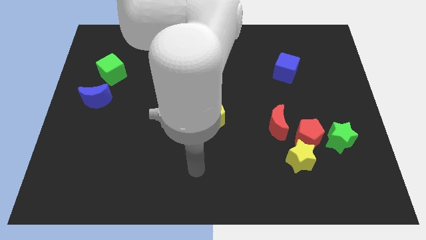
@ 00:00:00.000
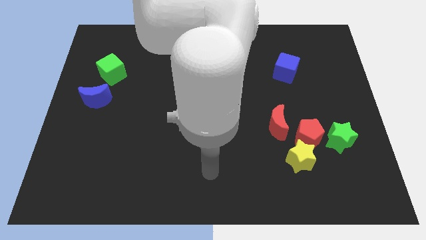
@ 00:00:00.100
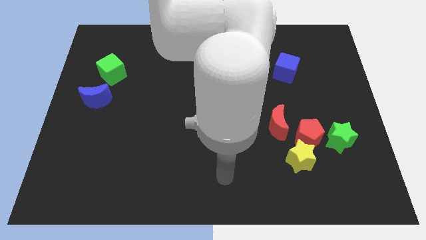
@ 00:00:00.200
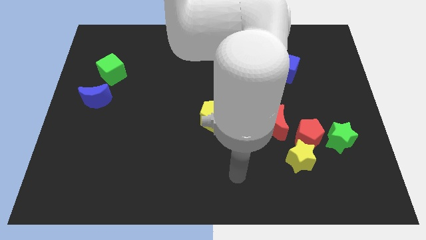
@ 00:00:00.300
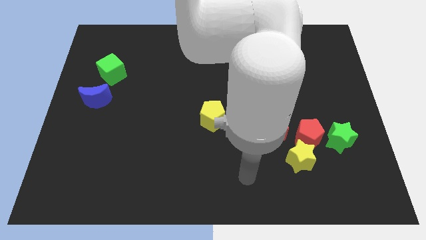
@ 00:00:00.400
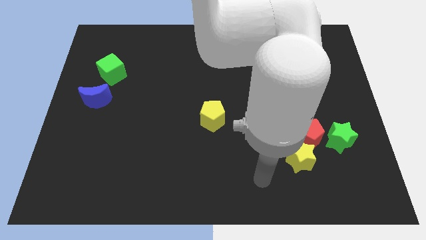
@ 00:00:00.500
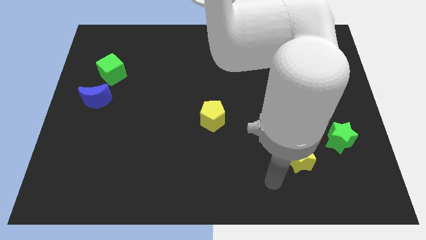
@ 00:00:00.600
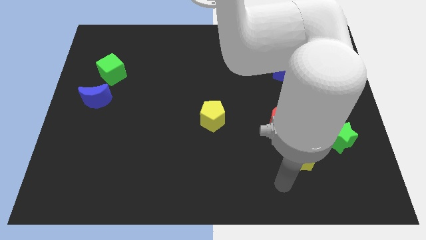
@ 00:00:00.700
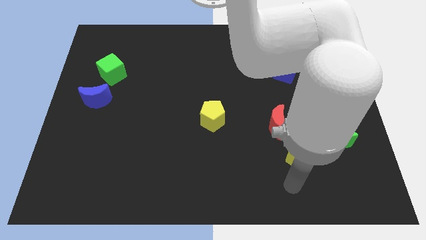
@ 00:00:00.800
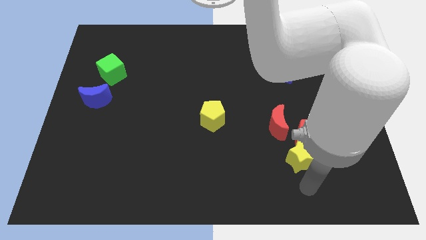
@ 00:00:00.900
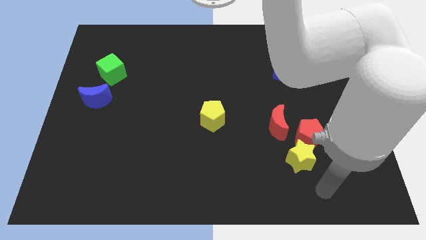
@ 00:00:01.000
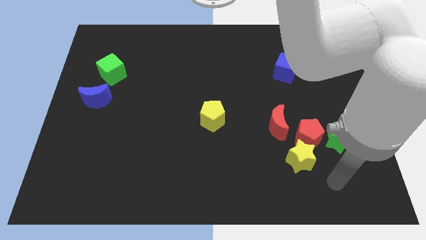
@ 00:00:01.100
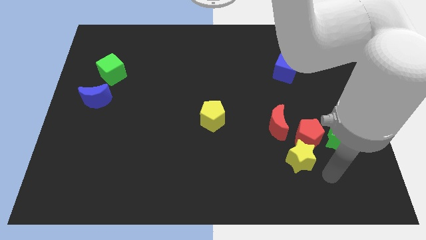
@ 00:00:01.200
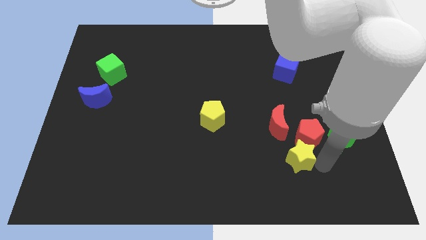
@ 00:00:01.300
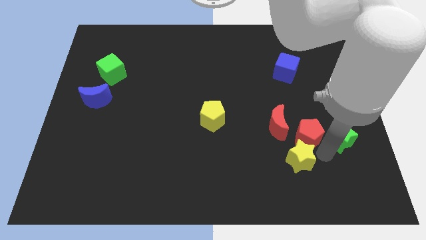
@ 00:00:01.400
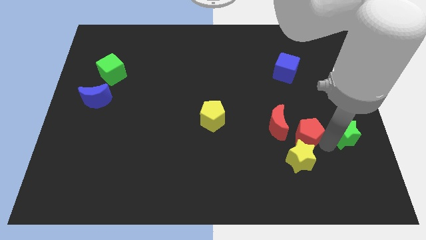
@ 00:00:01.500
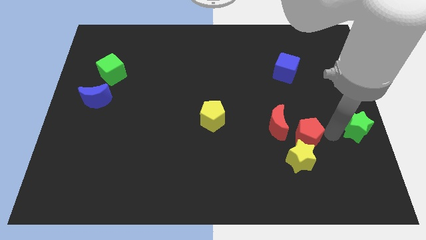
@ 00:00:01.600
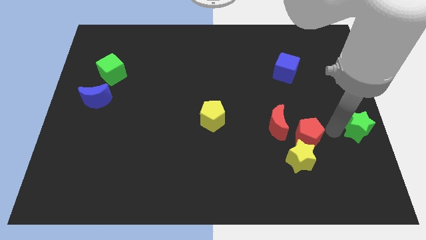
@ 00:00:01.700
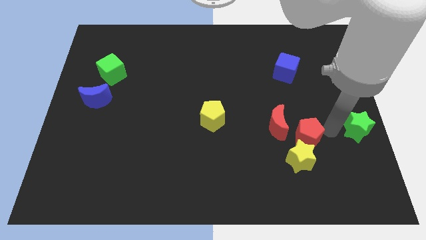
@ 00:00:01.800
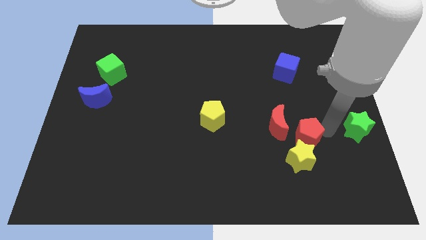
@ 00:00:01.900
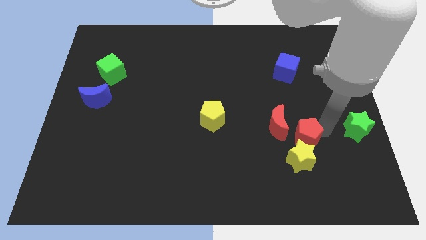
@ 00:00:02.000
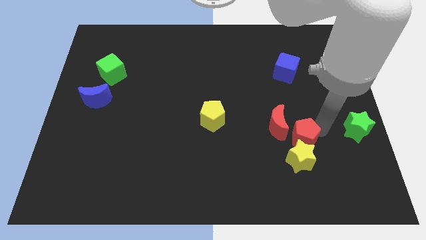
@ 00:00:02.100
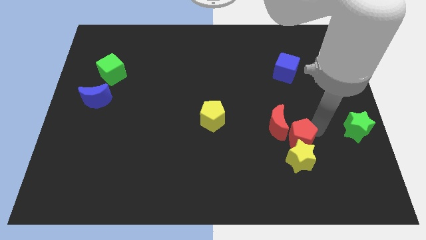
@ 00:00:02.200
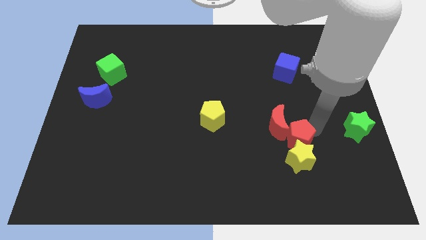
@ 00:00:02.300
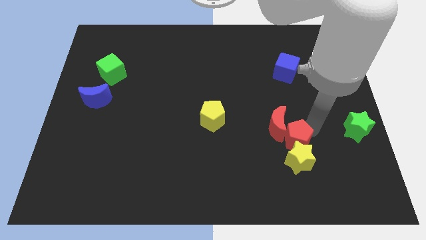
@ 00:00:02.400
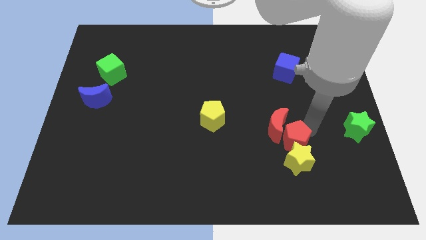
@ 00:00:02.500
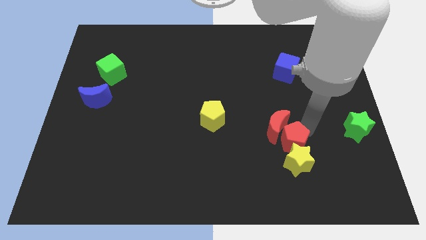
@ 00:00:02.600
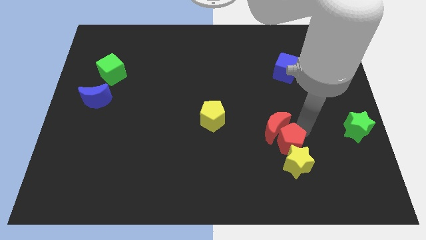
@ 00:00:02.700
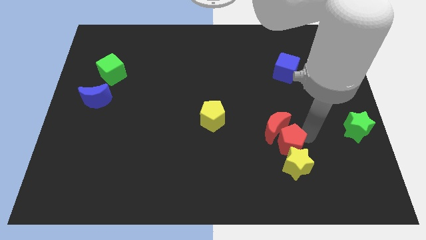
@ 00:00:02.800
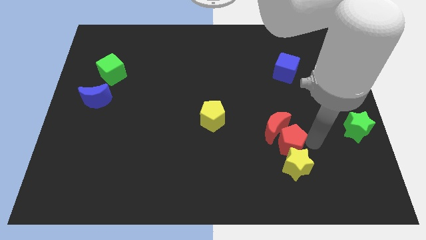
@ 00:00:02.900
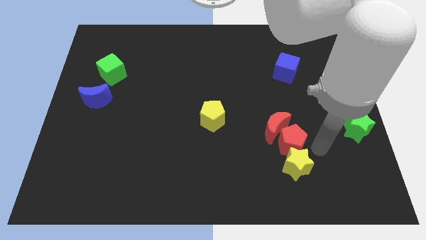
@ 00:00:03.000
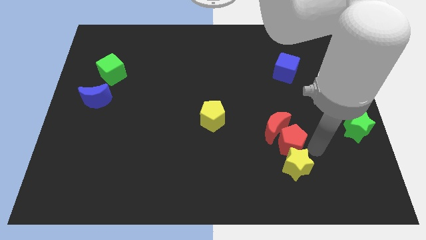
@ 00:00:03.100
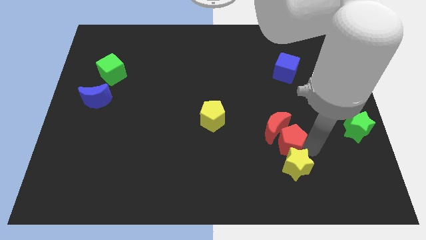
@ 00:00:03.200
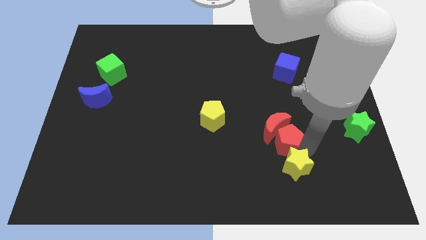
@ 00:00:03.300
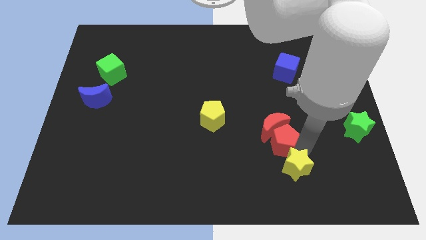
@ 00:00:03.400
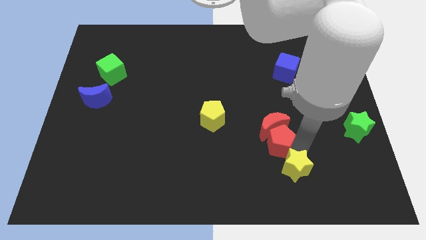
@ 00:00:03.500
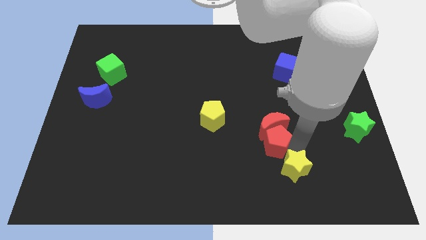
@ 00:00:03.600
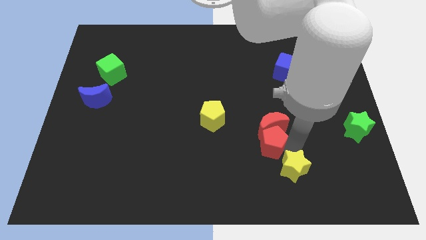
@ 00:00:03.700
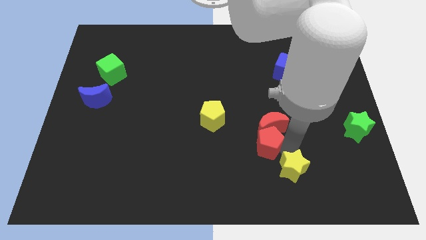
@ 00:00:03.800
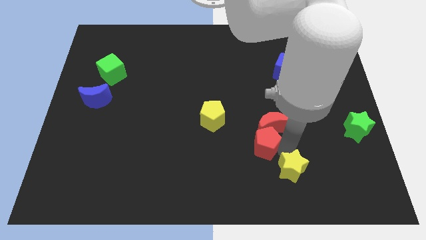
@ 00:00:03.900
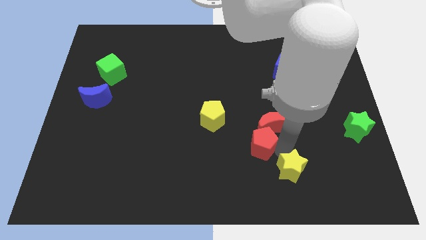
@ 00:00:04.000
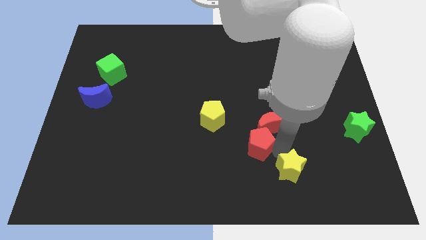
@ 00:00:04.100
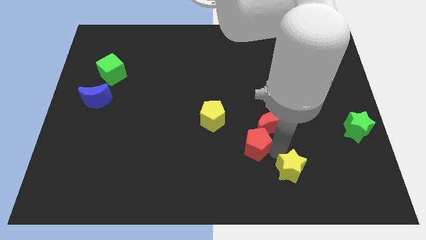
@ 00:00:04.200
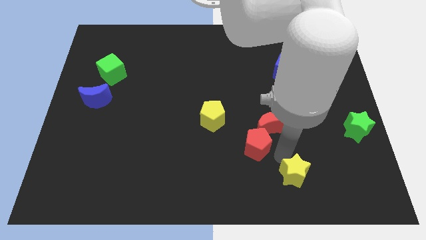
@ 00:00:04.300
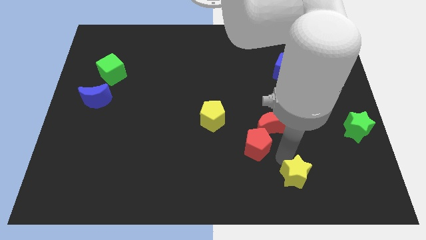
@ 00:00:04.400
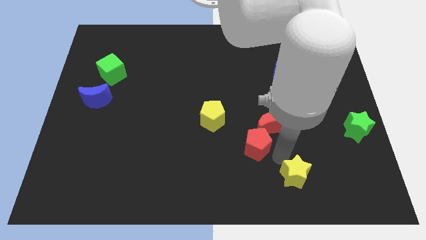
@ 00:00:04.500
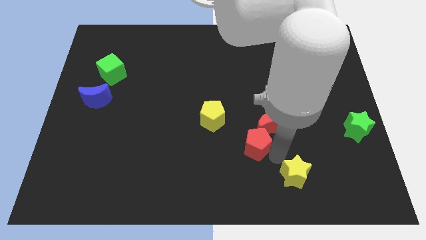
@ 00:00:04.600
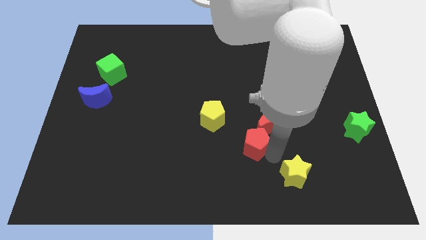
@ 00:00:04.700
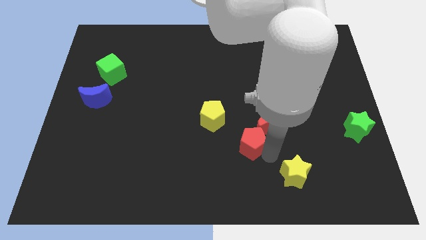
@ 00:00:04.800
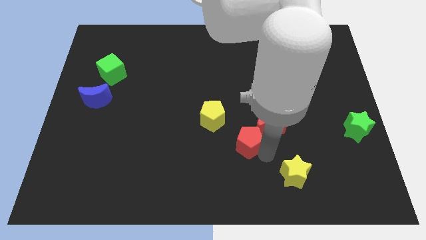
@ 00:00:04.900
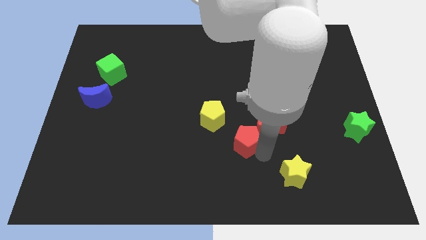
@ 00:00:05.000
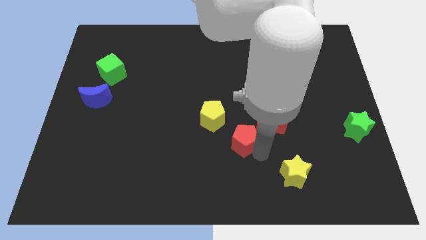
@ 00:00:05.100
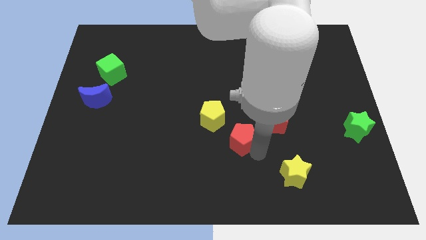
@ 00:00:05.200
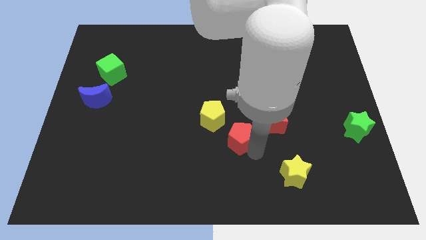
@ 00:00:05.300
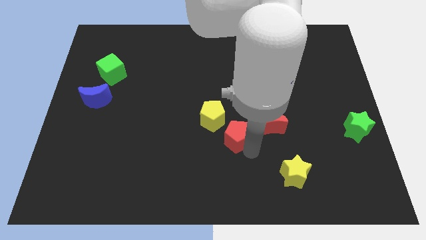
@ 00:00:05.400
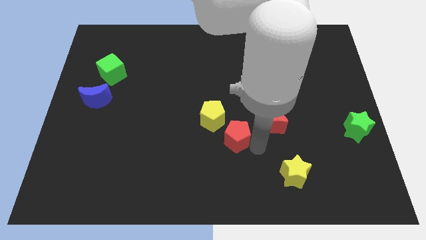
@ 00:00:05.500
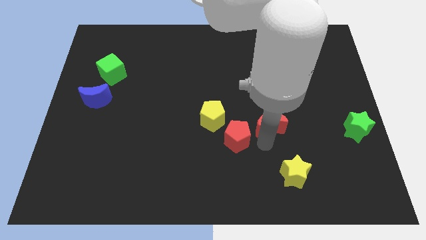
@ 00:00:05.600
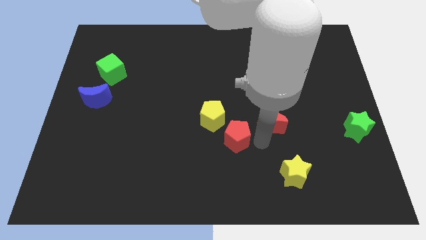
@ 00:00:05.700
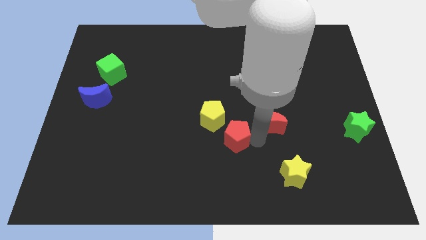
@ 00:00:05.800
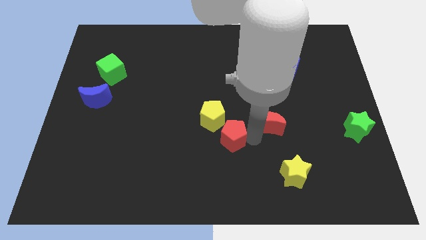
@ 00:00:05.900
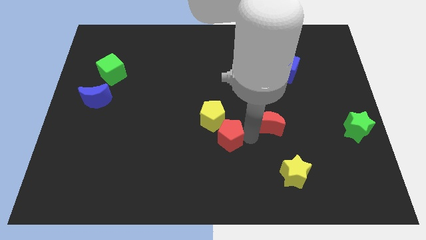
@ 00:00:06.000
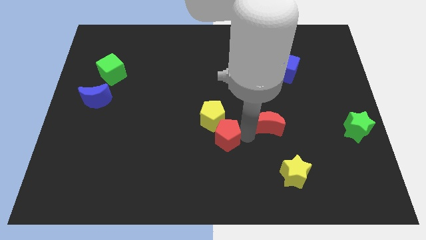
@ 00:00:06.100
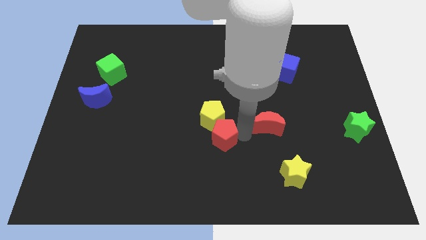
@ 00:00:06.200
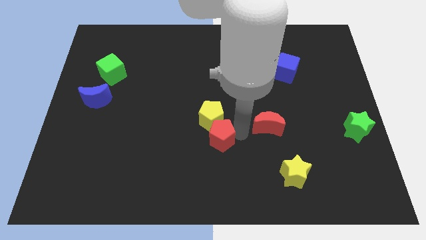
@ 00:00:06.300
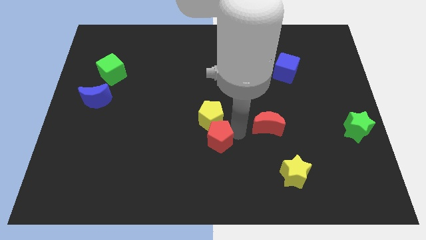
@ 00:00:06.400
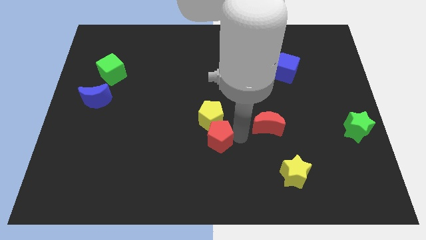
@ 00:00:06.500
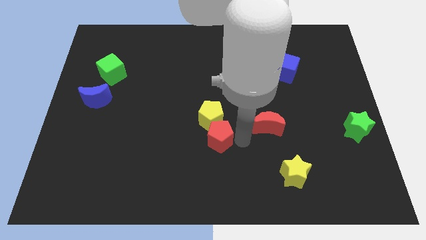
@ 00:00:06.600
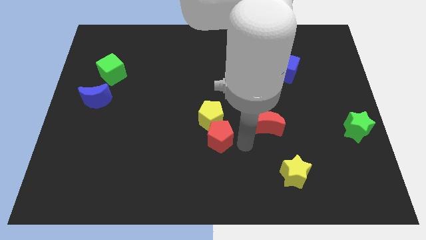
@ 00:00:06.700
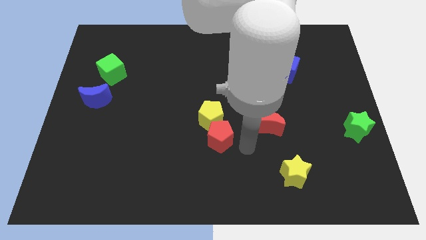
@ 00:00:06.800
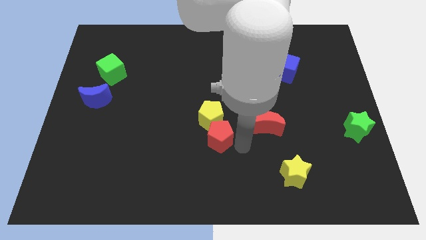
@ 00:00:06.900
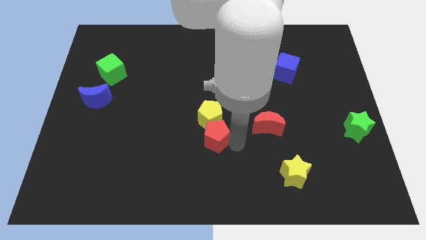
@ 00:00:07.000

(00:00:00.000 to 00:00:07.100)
push the red pentagon left

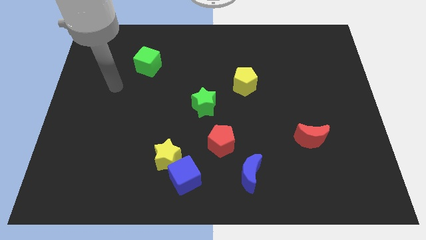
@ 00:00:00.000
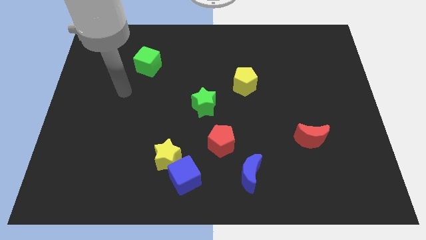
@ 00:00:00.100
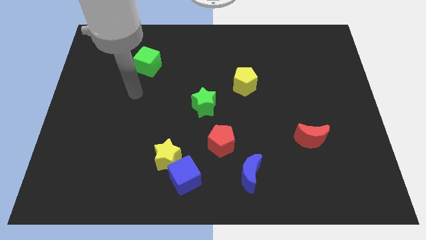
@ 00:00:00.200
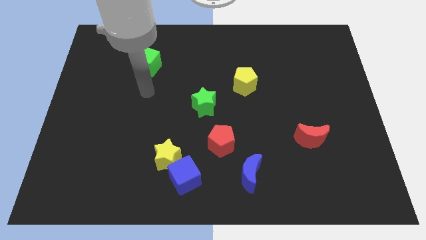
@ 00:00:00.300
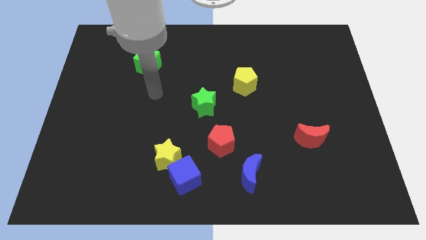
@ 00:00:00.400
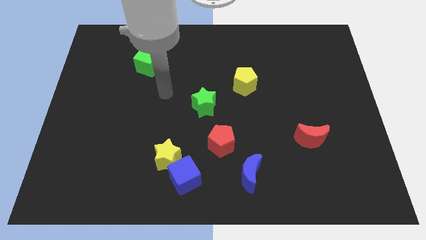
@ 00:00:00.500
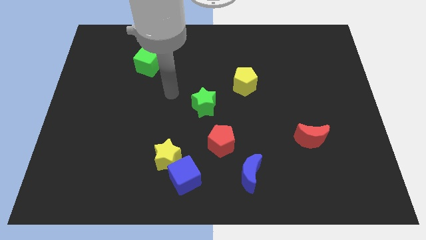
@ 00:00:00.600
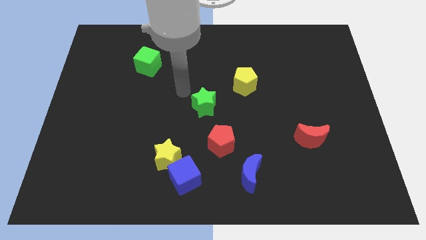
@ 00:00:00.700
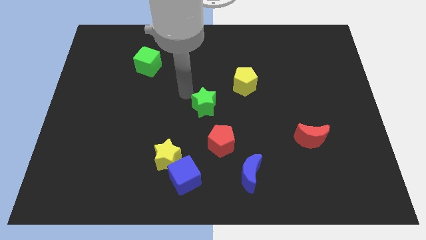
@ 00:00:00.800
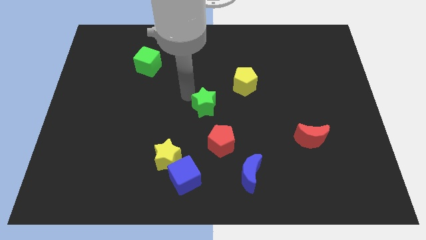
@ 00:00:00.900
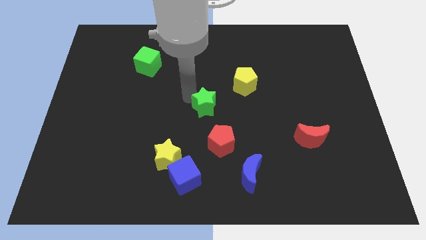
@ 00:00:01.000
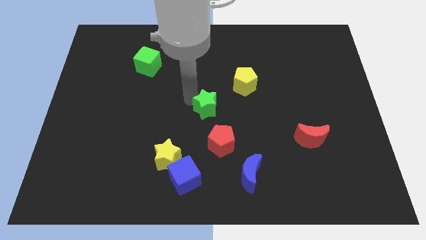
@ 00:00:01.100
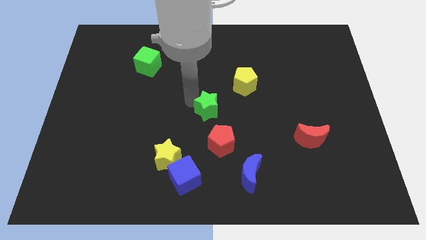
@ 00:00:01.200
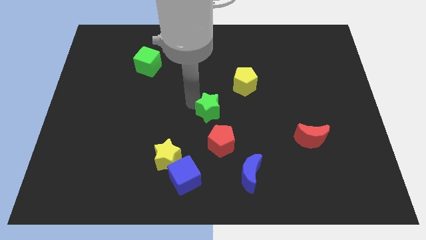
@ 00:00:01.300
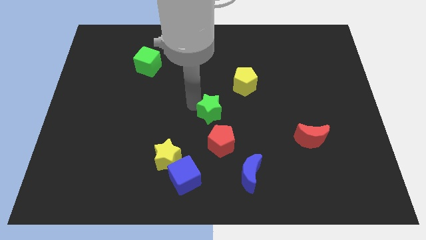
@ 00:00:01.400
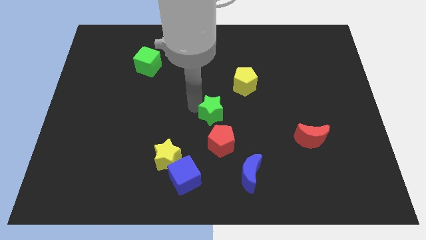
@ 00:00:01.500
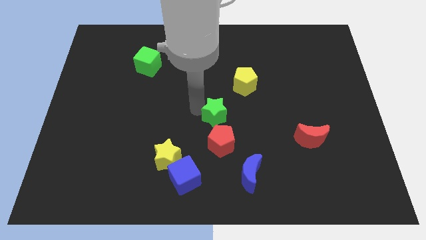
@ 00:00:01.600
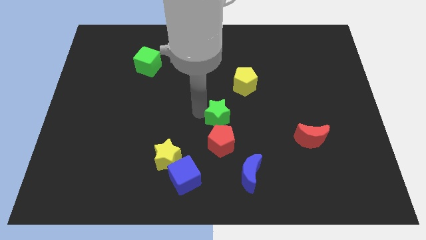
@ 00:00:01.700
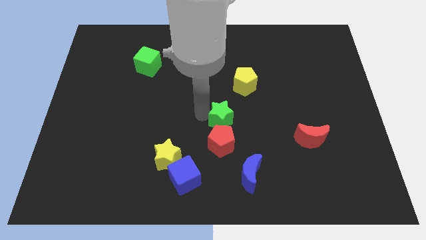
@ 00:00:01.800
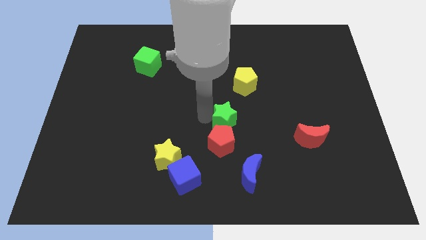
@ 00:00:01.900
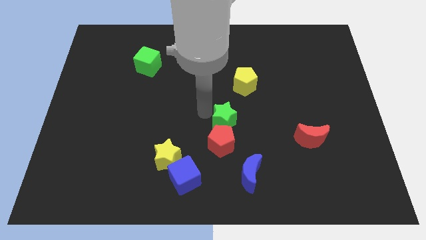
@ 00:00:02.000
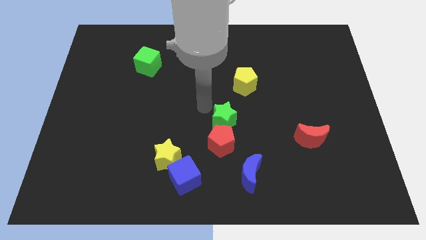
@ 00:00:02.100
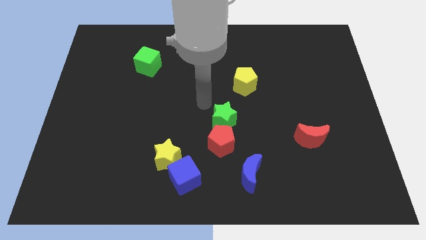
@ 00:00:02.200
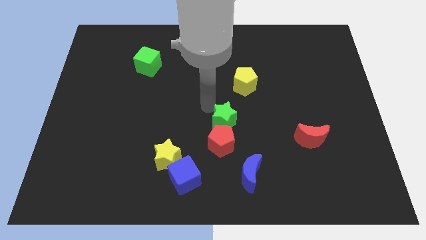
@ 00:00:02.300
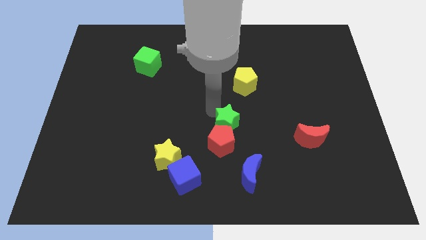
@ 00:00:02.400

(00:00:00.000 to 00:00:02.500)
slightly slide the green star down and to the right diagonally
